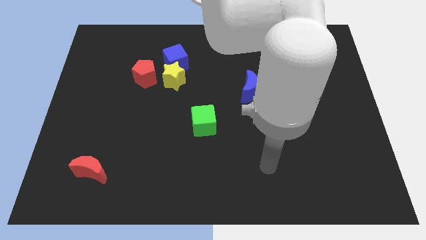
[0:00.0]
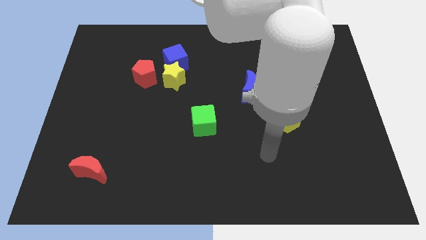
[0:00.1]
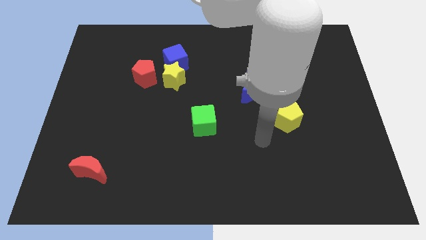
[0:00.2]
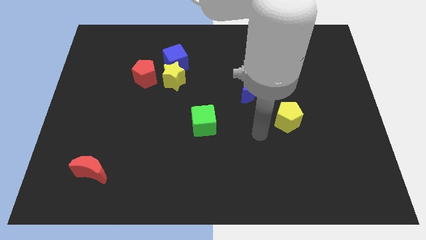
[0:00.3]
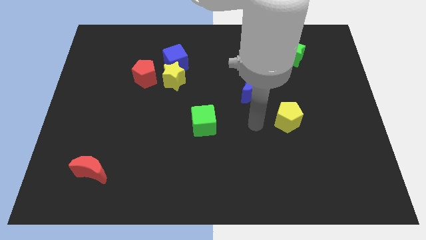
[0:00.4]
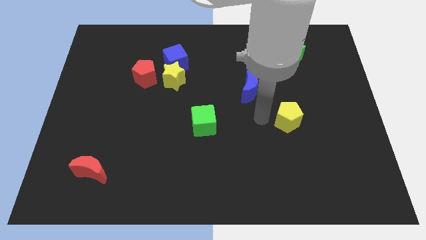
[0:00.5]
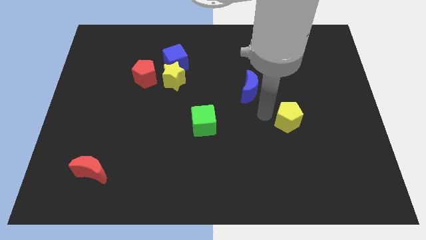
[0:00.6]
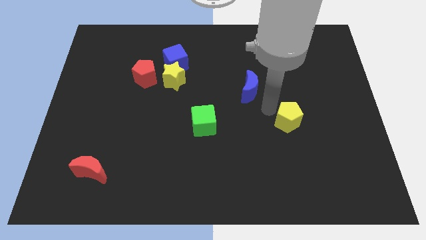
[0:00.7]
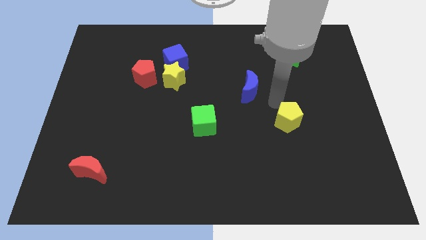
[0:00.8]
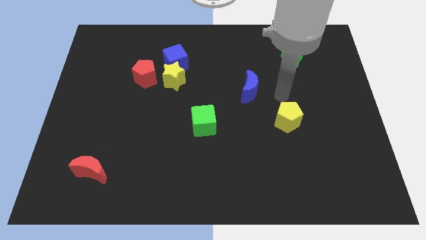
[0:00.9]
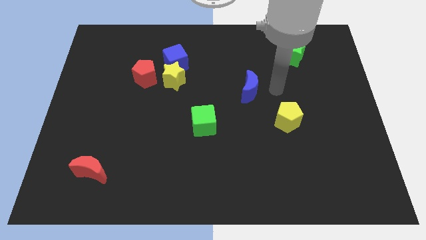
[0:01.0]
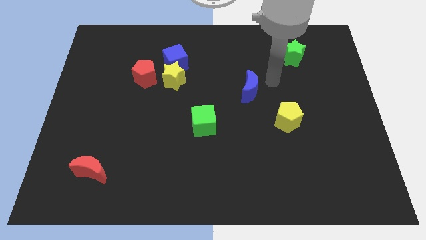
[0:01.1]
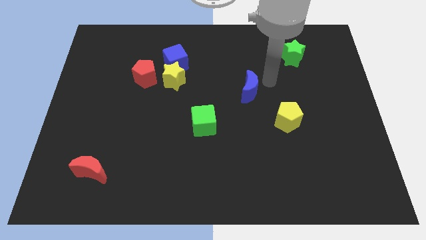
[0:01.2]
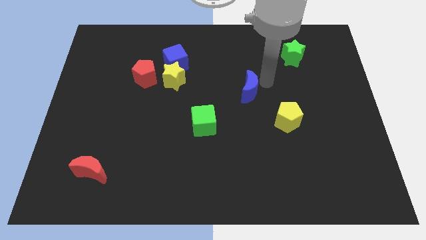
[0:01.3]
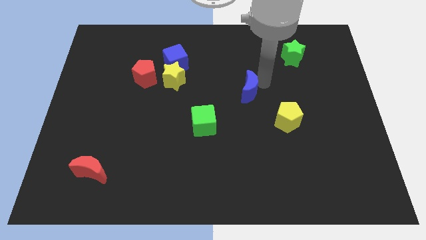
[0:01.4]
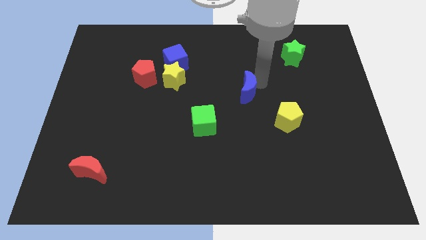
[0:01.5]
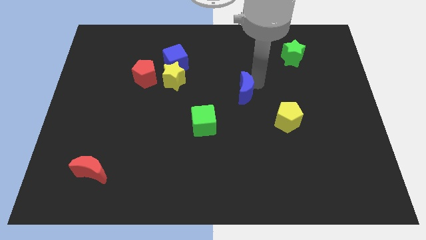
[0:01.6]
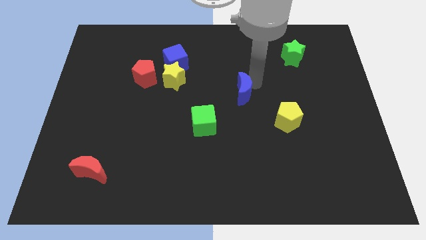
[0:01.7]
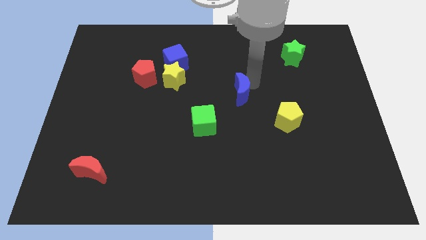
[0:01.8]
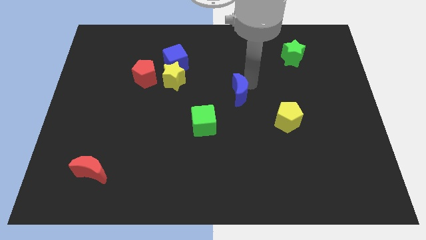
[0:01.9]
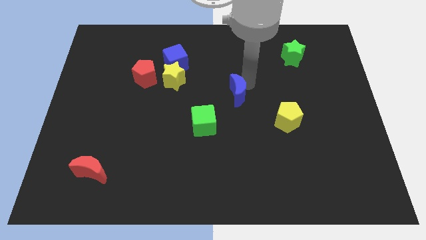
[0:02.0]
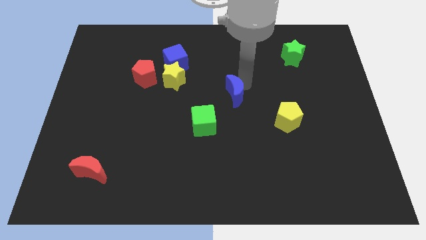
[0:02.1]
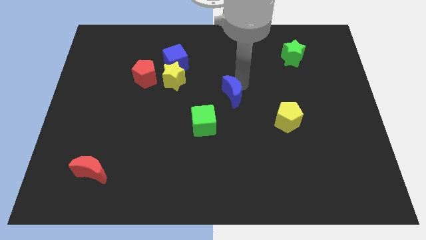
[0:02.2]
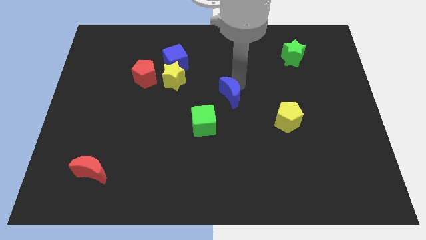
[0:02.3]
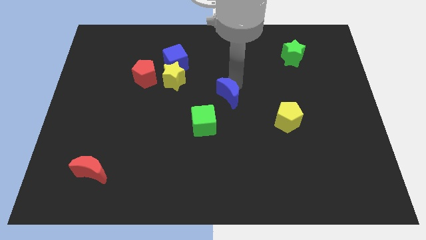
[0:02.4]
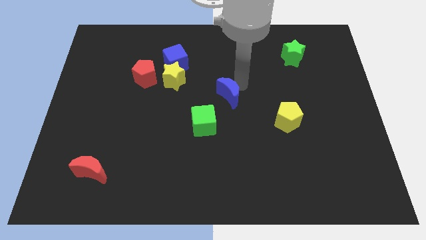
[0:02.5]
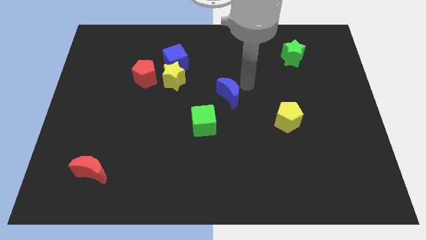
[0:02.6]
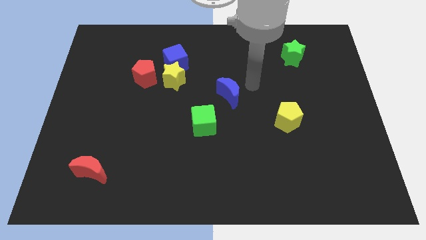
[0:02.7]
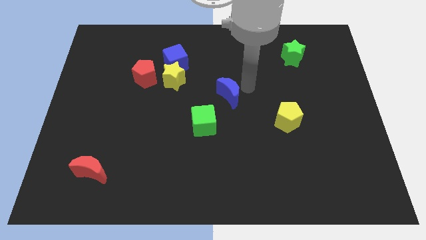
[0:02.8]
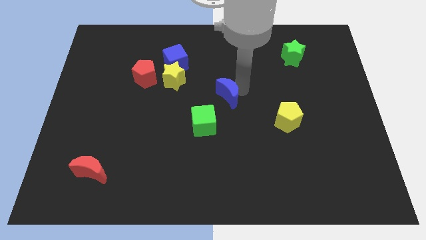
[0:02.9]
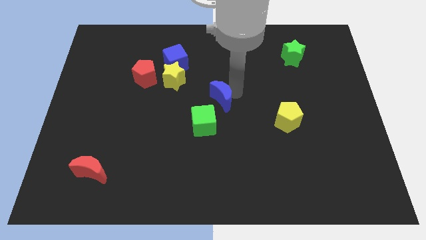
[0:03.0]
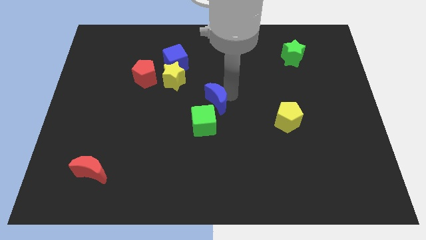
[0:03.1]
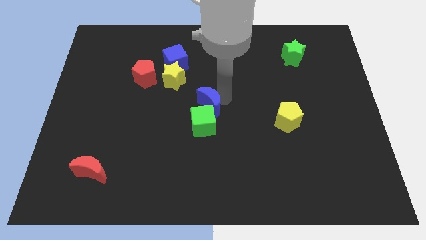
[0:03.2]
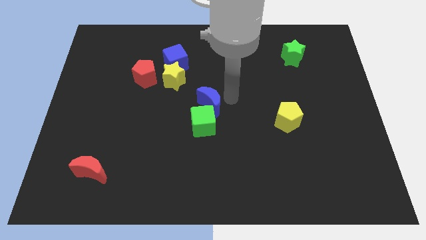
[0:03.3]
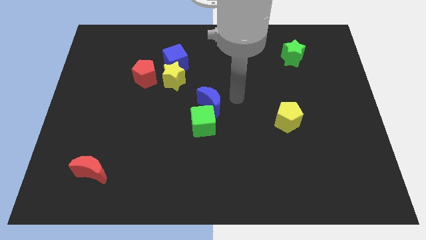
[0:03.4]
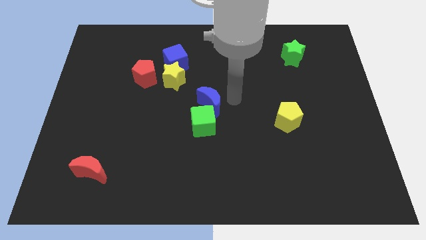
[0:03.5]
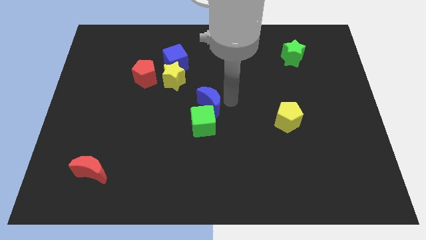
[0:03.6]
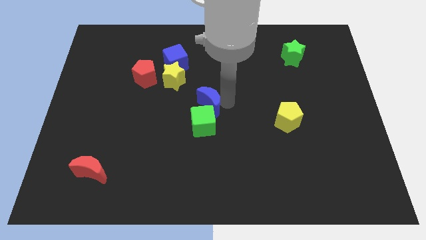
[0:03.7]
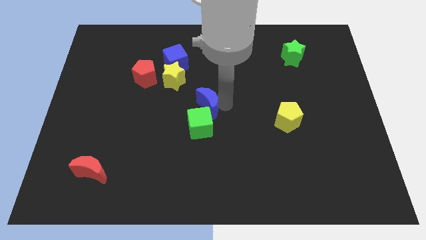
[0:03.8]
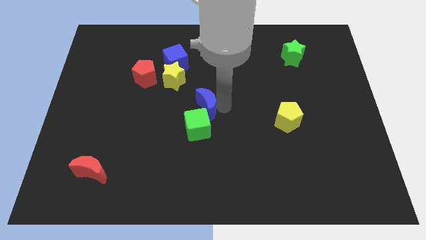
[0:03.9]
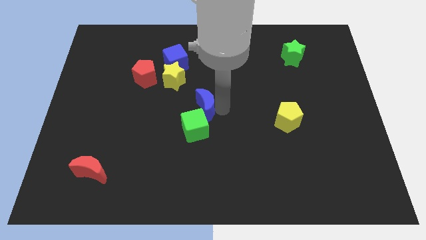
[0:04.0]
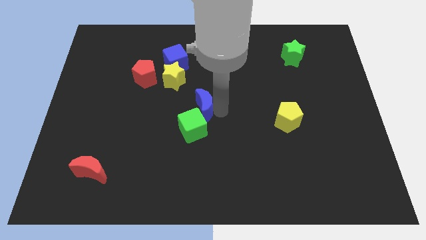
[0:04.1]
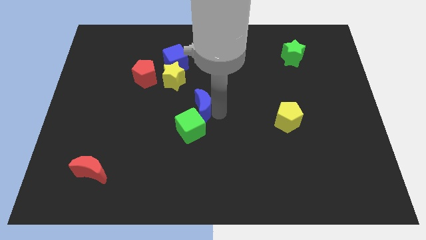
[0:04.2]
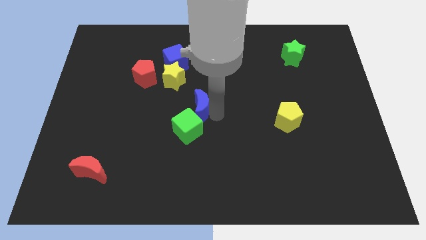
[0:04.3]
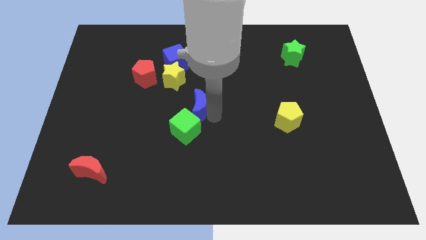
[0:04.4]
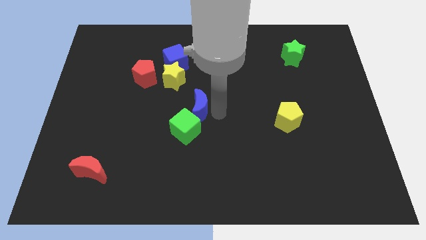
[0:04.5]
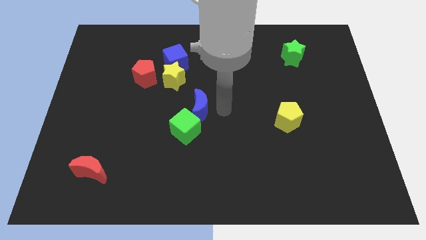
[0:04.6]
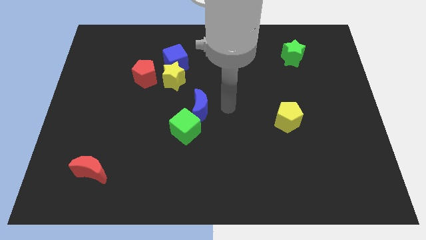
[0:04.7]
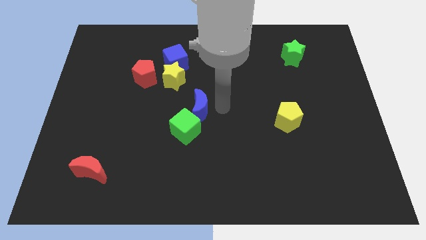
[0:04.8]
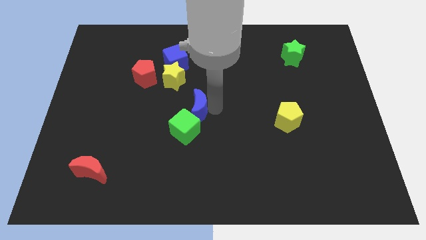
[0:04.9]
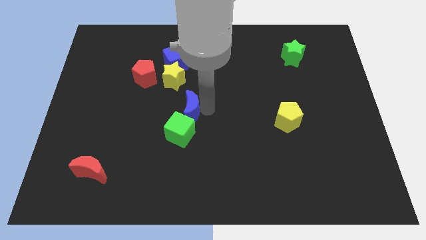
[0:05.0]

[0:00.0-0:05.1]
push the blue moon to the bottom side of the yellow star
